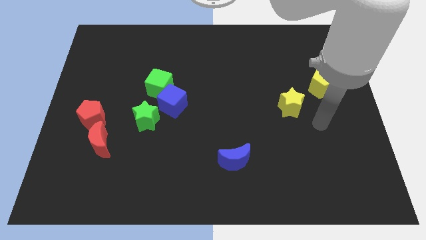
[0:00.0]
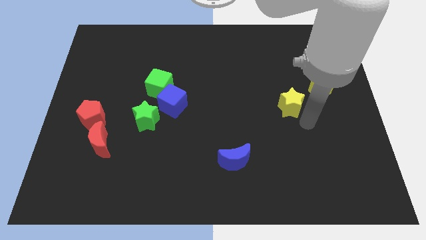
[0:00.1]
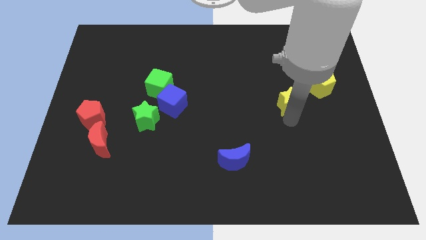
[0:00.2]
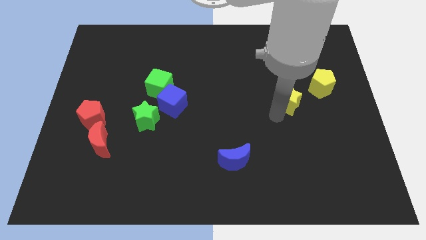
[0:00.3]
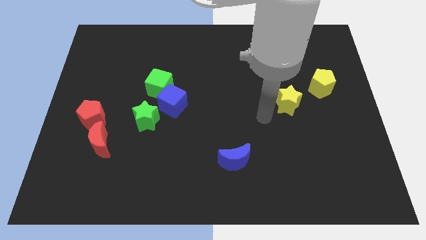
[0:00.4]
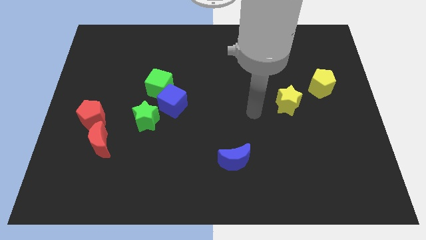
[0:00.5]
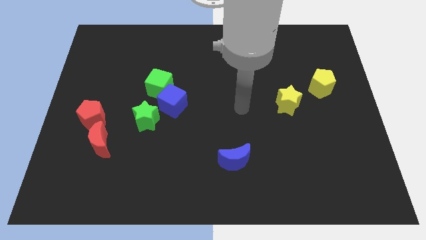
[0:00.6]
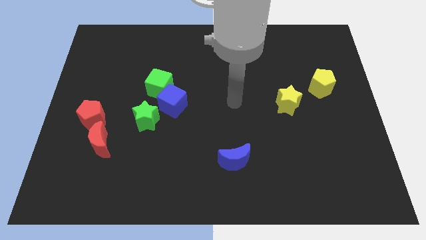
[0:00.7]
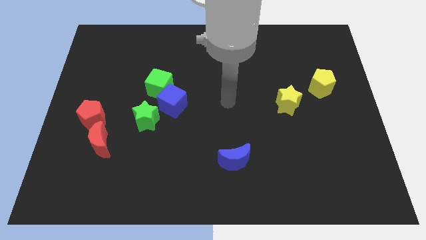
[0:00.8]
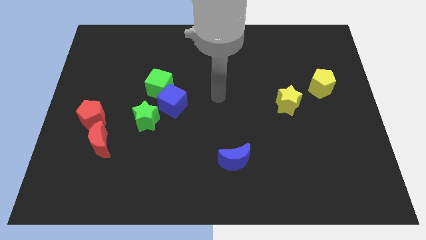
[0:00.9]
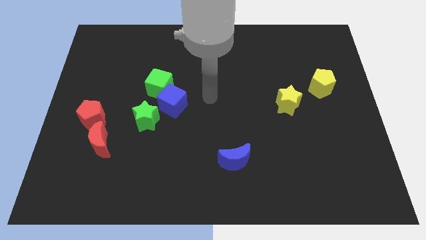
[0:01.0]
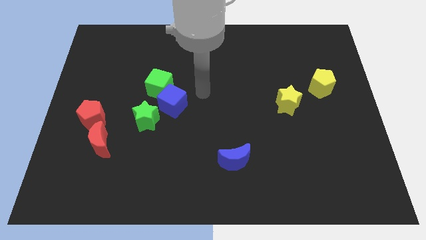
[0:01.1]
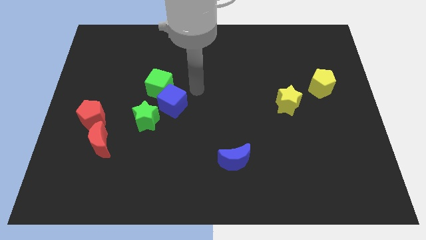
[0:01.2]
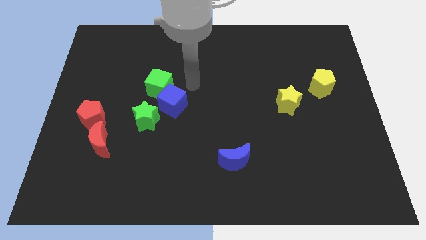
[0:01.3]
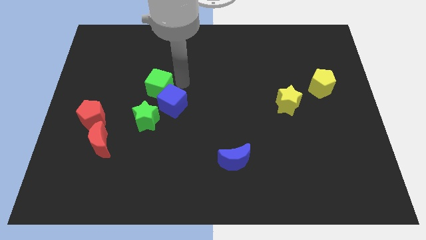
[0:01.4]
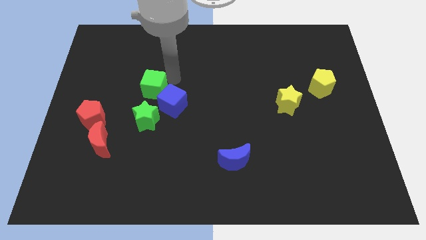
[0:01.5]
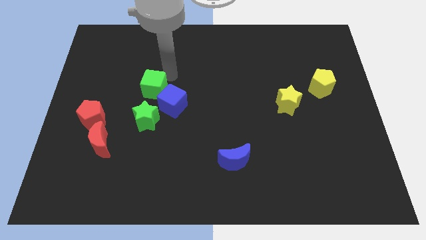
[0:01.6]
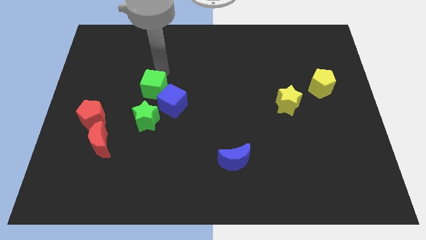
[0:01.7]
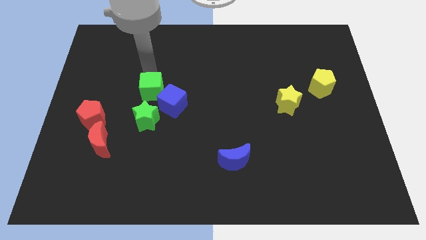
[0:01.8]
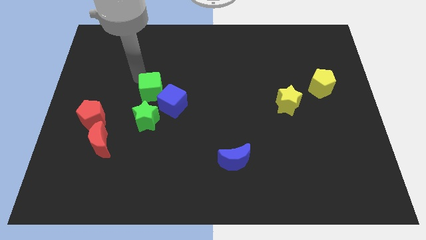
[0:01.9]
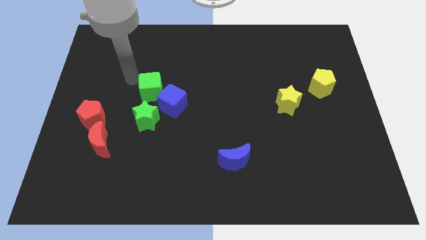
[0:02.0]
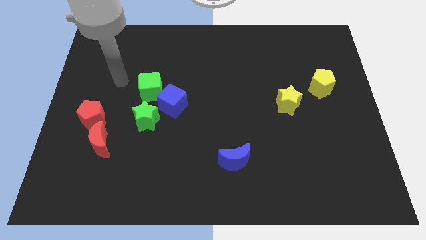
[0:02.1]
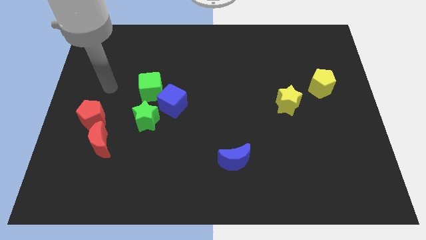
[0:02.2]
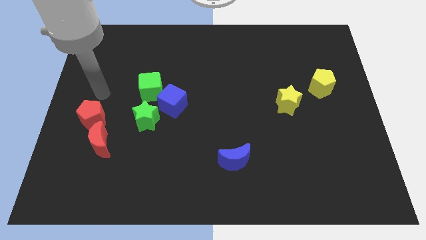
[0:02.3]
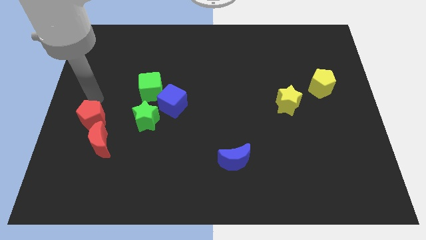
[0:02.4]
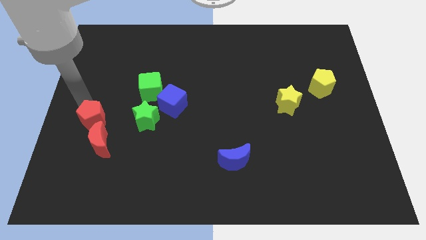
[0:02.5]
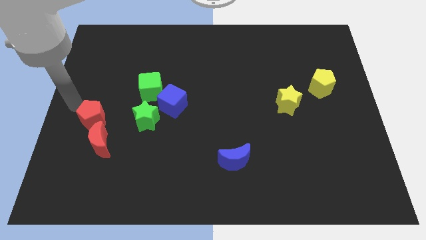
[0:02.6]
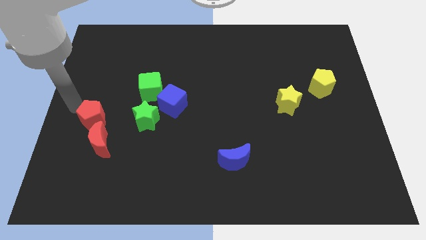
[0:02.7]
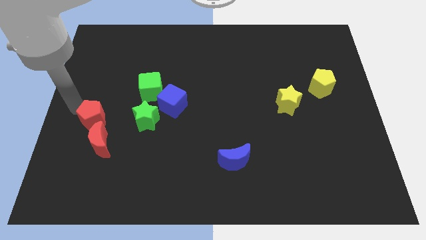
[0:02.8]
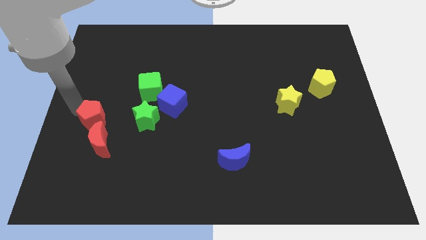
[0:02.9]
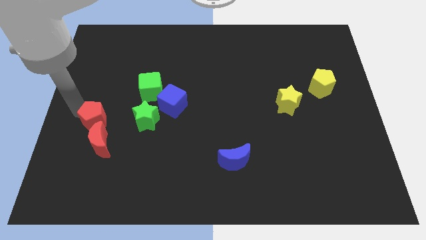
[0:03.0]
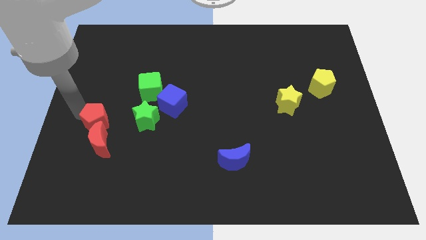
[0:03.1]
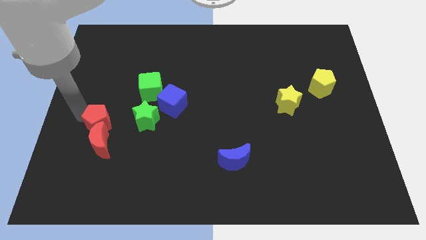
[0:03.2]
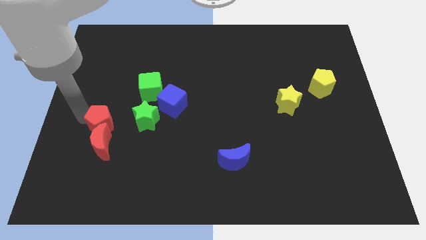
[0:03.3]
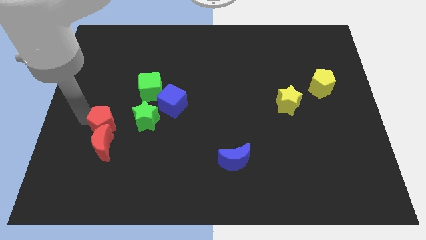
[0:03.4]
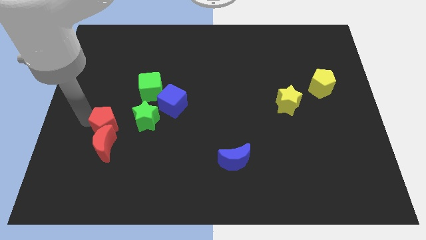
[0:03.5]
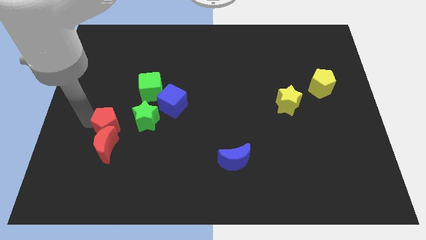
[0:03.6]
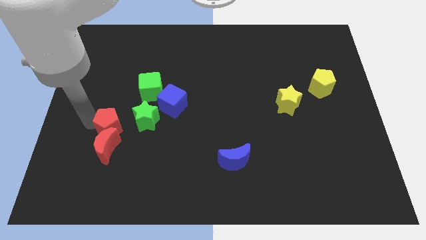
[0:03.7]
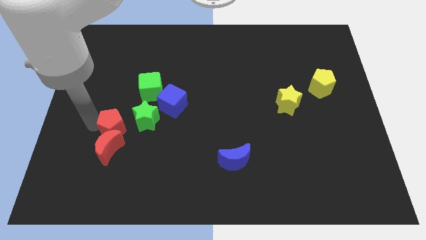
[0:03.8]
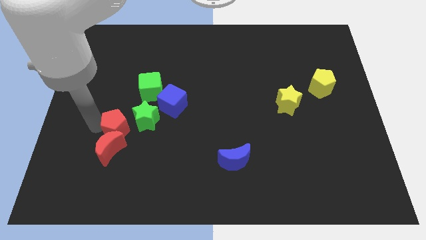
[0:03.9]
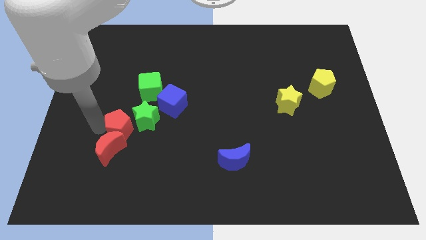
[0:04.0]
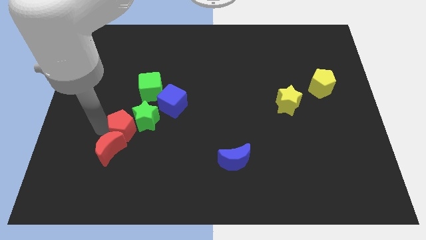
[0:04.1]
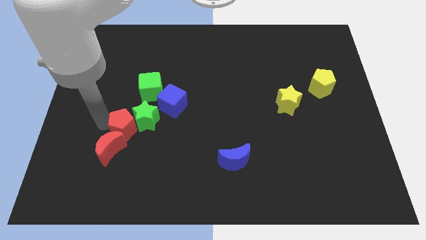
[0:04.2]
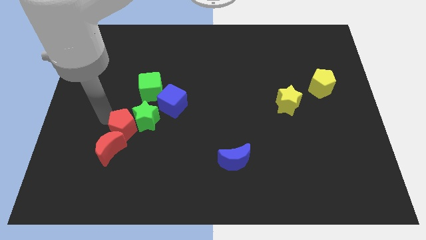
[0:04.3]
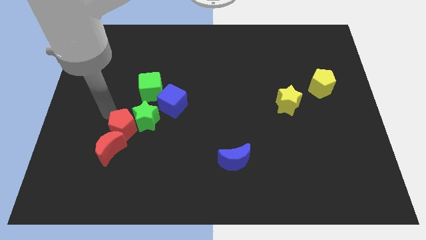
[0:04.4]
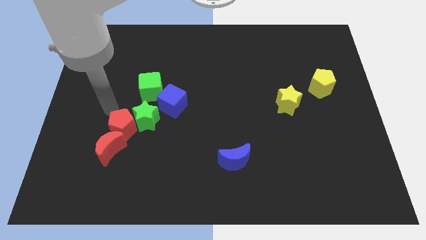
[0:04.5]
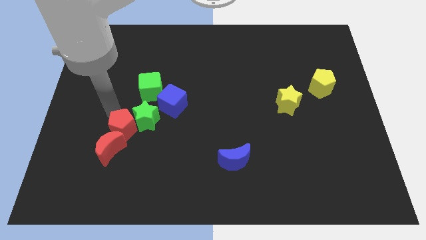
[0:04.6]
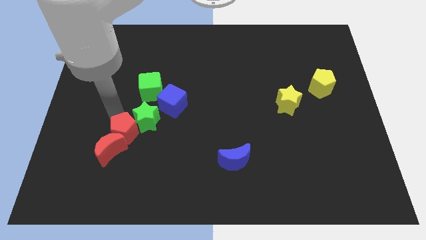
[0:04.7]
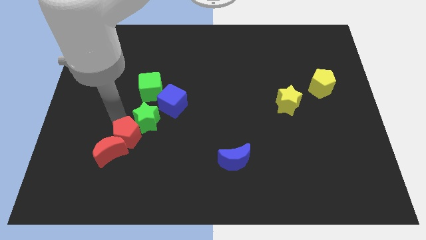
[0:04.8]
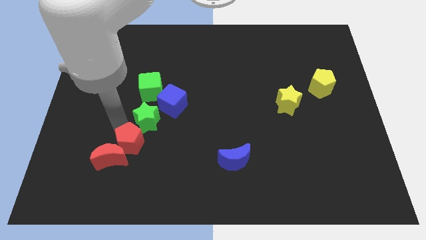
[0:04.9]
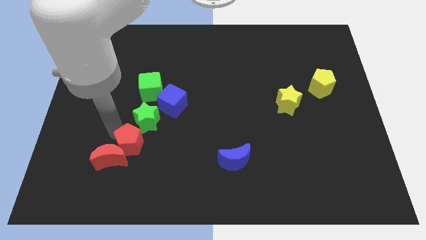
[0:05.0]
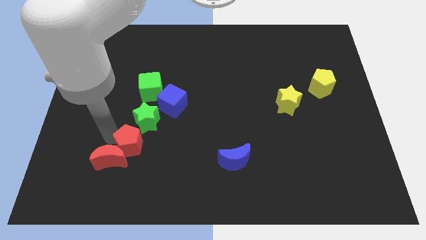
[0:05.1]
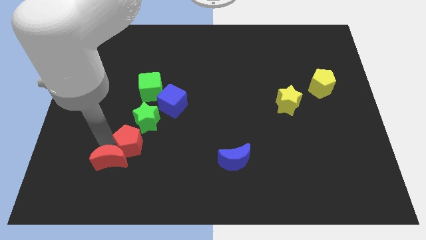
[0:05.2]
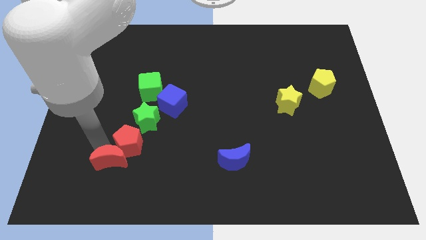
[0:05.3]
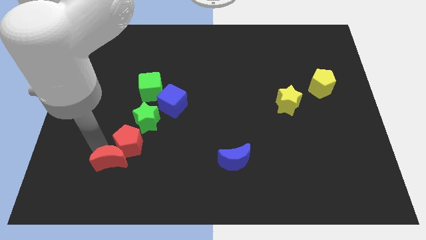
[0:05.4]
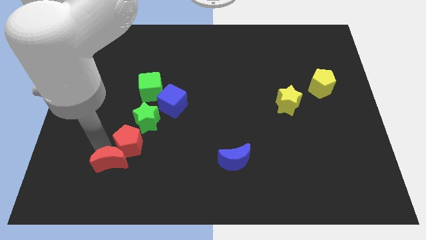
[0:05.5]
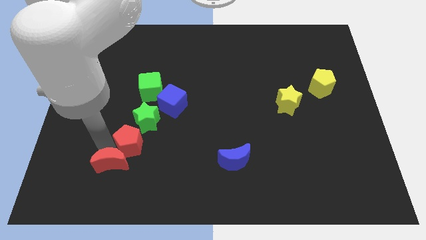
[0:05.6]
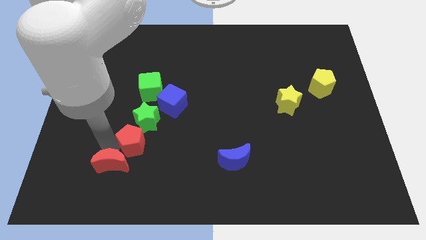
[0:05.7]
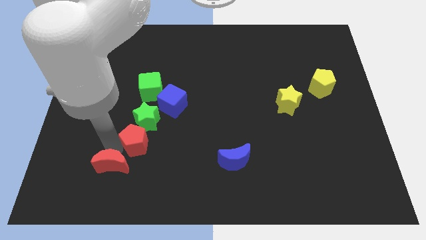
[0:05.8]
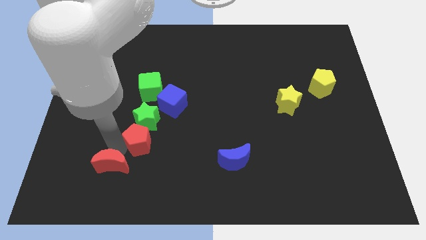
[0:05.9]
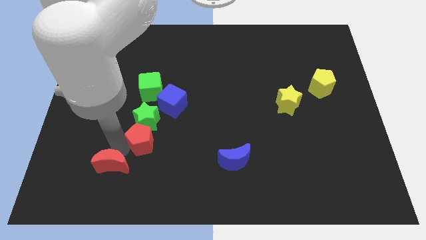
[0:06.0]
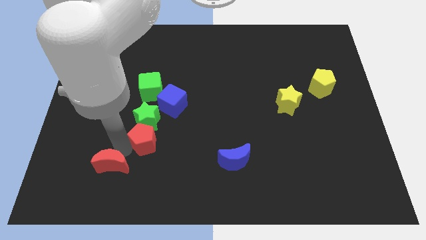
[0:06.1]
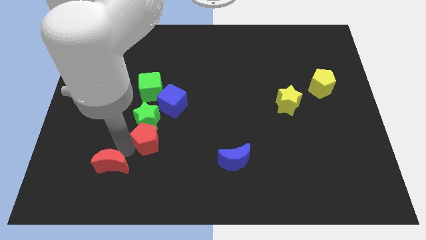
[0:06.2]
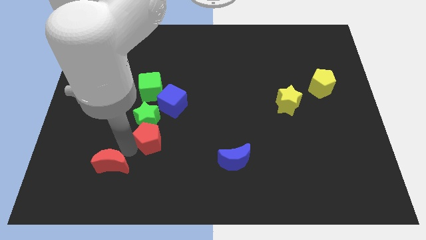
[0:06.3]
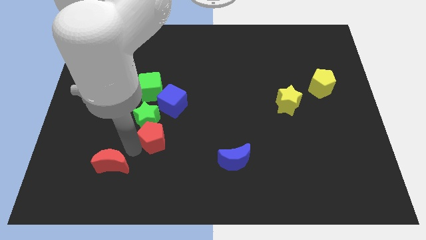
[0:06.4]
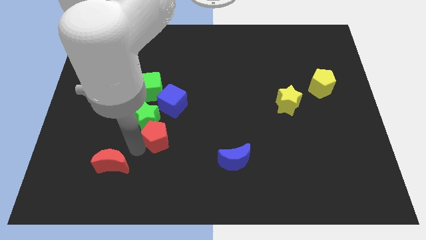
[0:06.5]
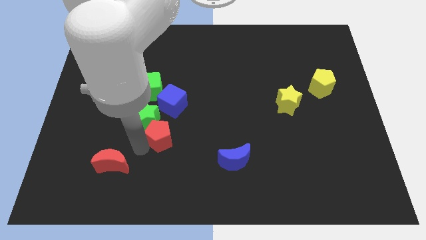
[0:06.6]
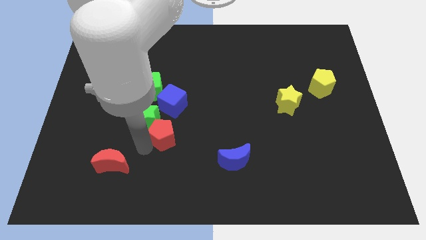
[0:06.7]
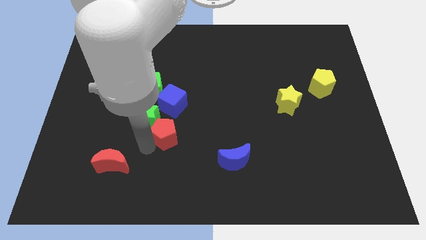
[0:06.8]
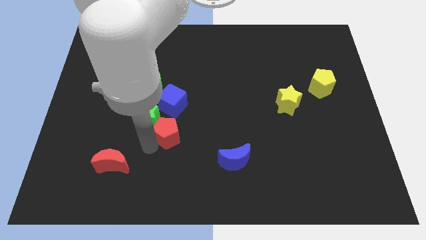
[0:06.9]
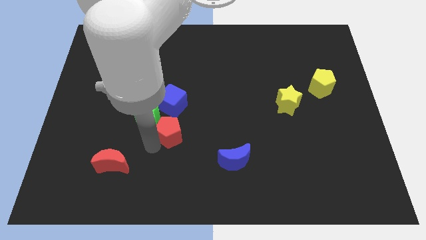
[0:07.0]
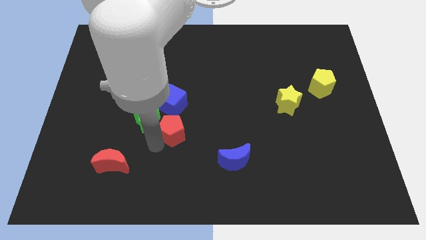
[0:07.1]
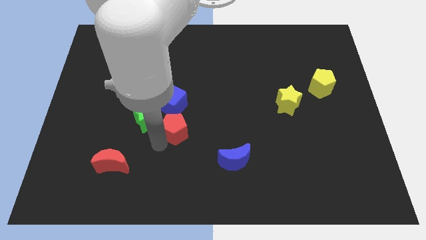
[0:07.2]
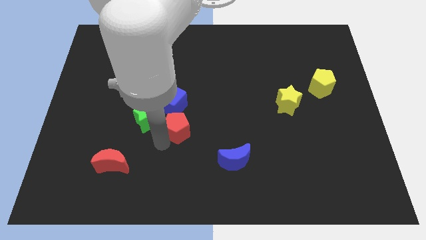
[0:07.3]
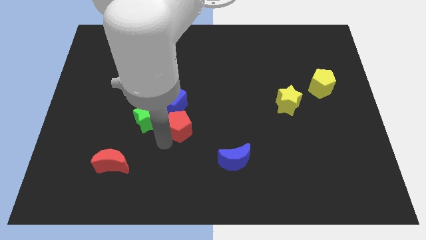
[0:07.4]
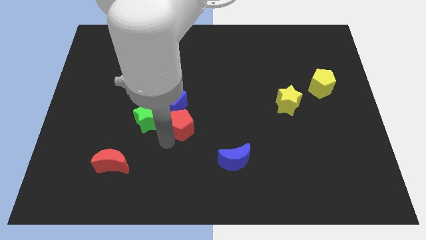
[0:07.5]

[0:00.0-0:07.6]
move the red pentagon to the right

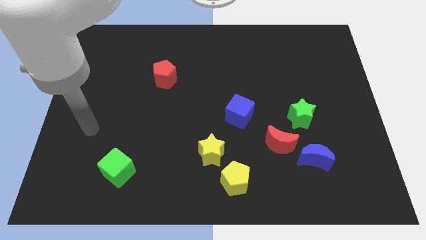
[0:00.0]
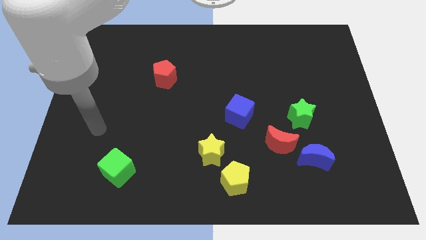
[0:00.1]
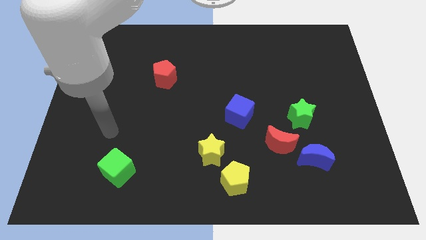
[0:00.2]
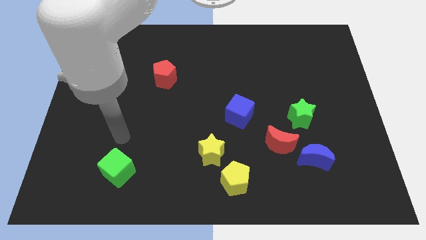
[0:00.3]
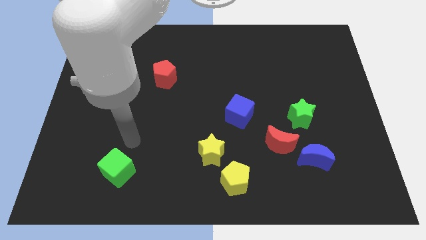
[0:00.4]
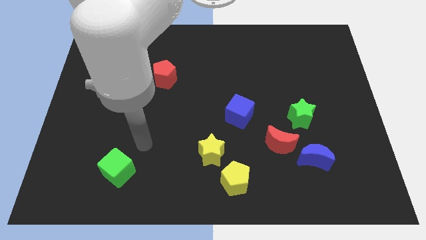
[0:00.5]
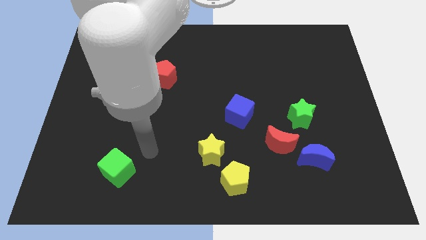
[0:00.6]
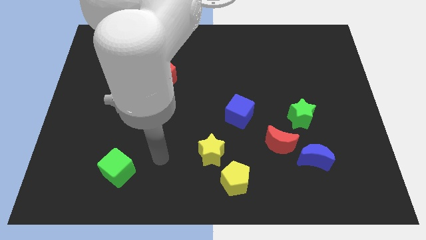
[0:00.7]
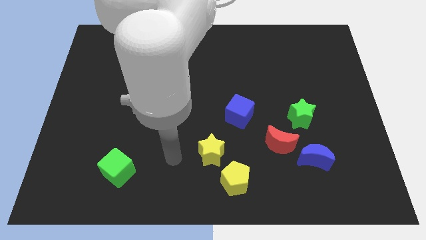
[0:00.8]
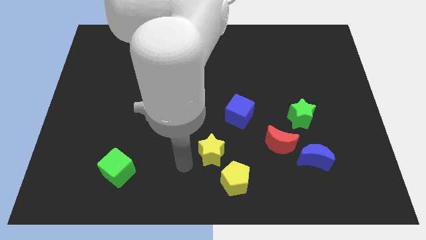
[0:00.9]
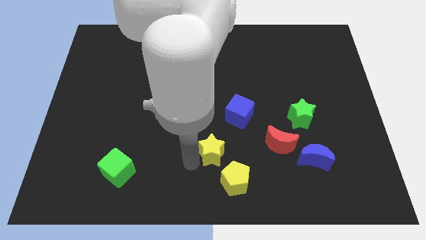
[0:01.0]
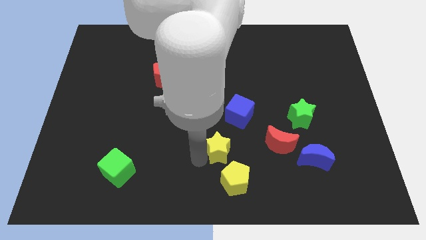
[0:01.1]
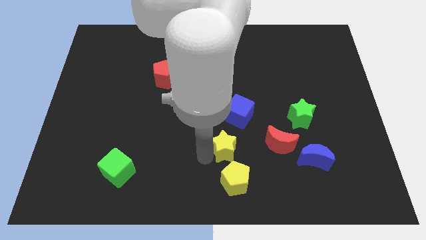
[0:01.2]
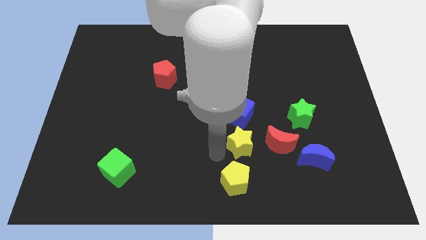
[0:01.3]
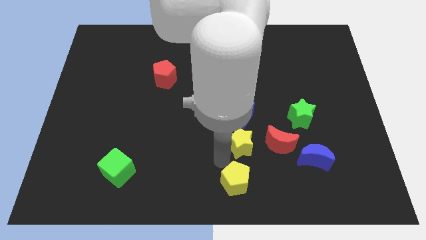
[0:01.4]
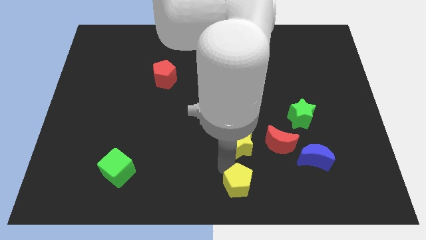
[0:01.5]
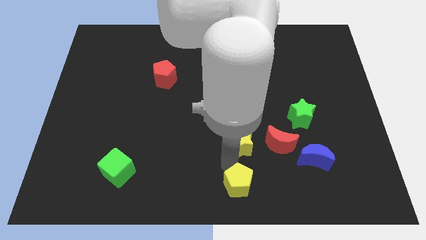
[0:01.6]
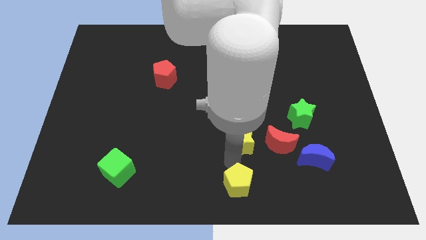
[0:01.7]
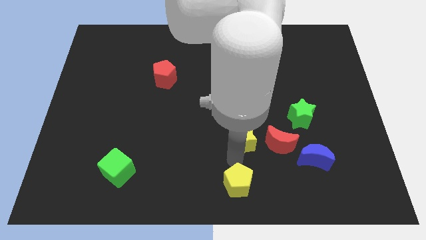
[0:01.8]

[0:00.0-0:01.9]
slide the yellow star upwards and right a bit
